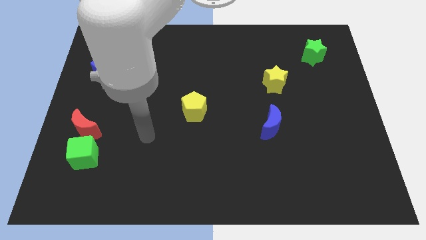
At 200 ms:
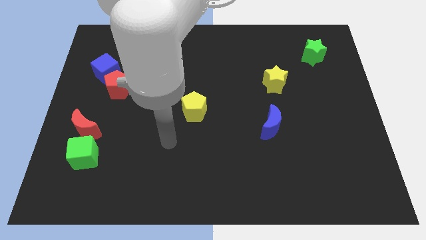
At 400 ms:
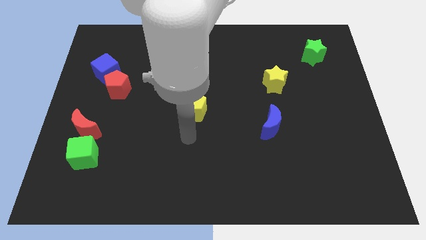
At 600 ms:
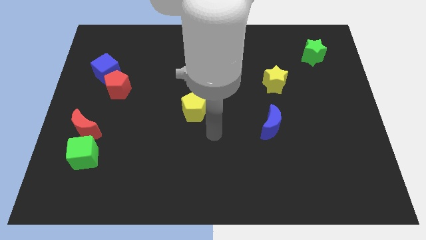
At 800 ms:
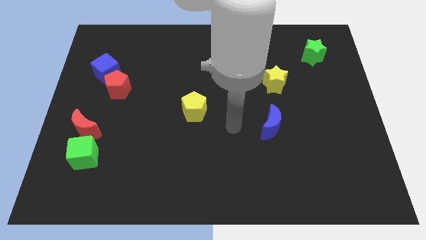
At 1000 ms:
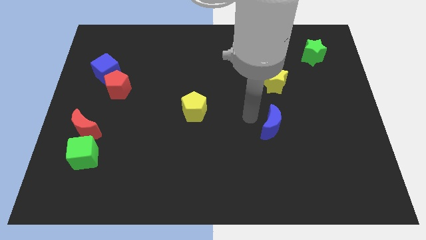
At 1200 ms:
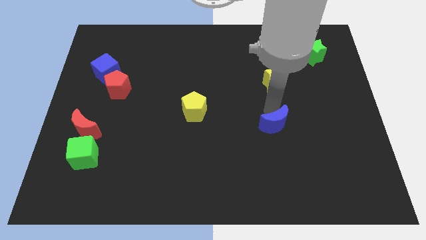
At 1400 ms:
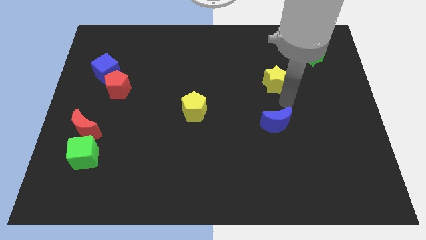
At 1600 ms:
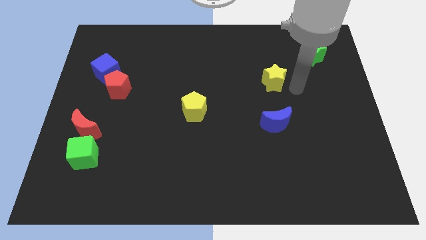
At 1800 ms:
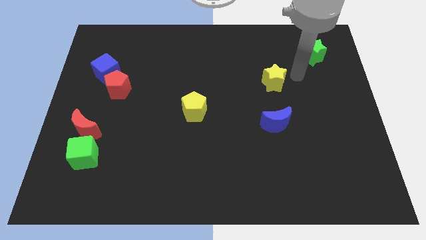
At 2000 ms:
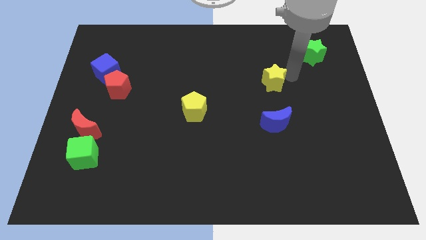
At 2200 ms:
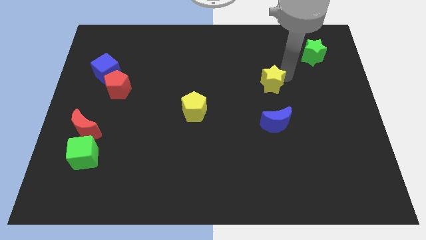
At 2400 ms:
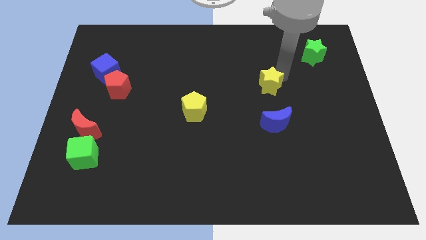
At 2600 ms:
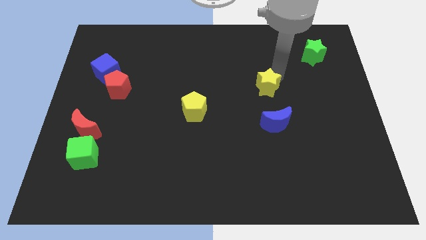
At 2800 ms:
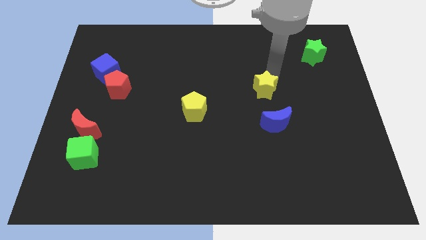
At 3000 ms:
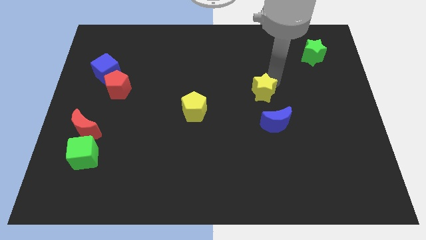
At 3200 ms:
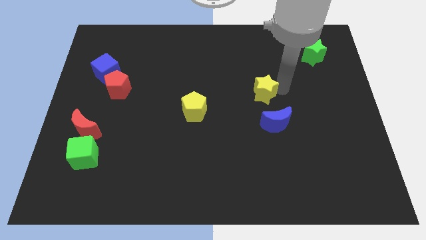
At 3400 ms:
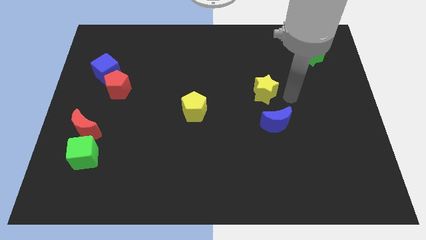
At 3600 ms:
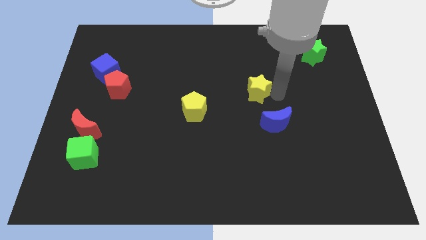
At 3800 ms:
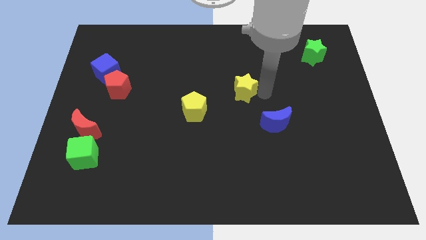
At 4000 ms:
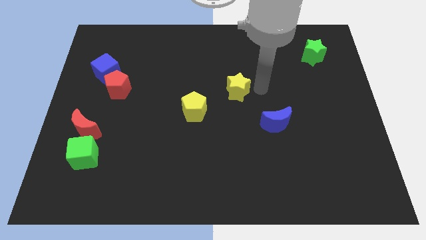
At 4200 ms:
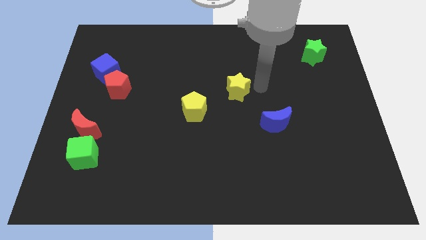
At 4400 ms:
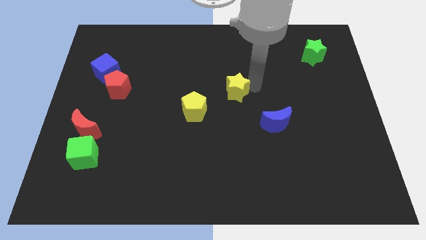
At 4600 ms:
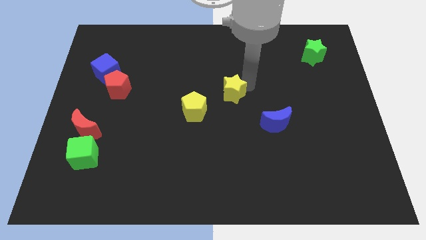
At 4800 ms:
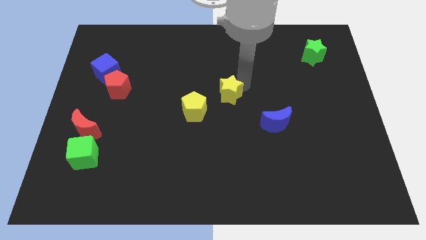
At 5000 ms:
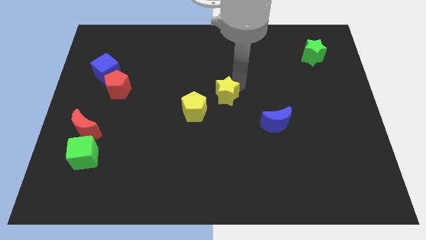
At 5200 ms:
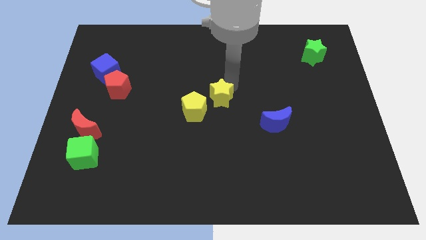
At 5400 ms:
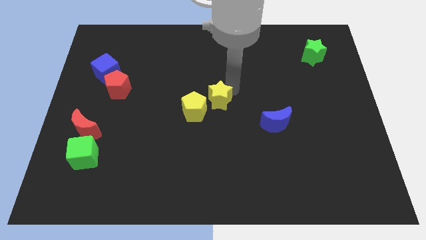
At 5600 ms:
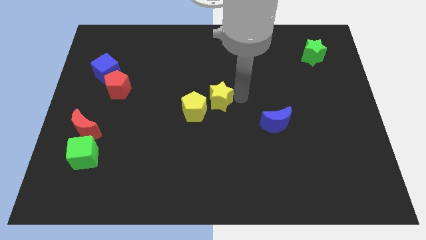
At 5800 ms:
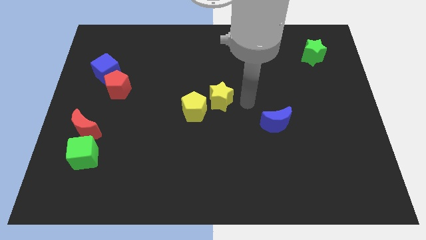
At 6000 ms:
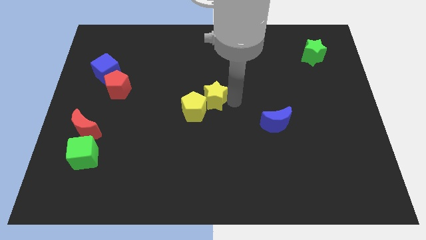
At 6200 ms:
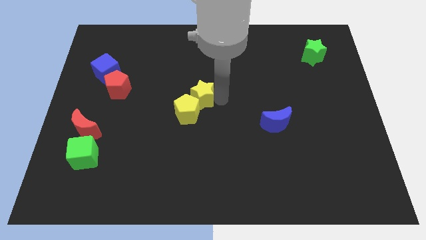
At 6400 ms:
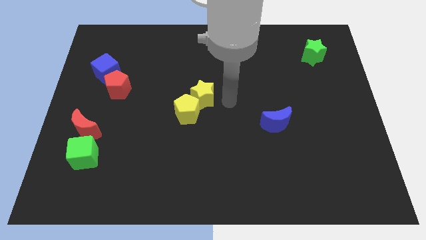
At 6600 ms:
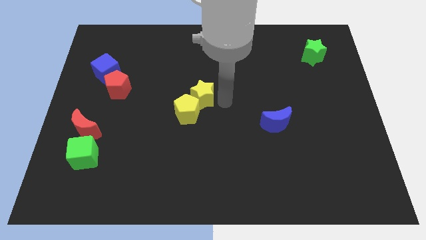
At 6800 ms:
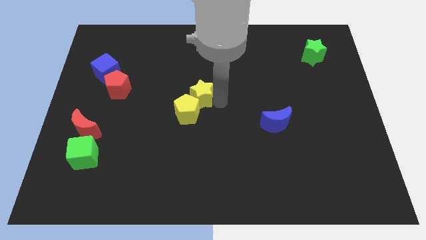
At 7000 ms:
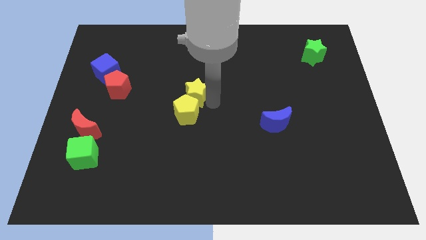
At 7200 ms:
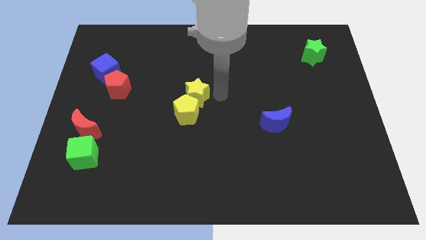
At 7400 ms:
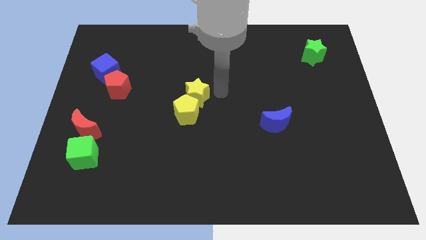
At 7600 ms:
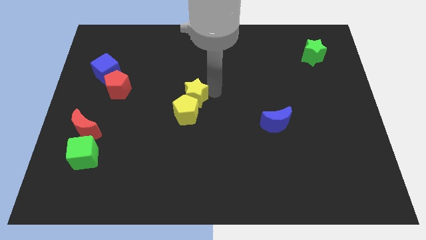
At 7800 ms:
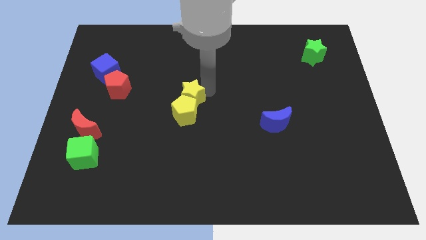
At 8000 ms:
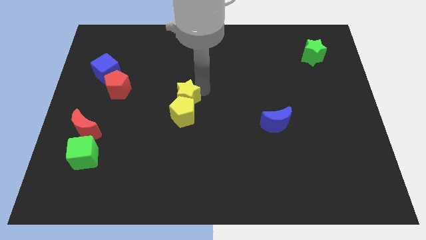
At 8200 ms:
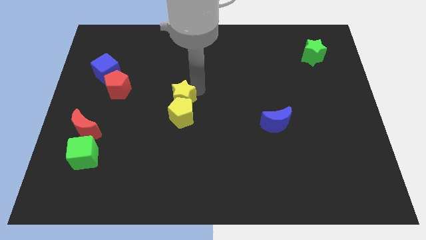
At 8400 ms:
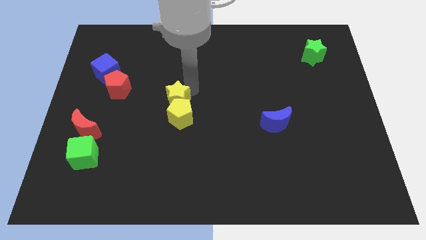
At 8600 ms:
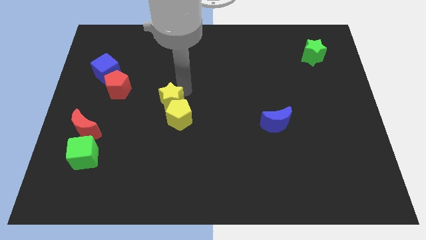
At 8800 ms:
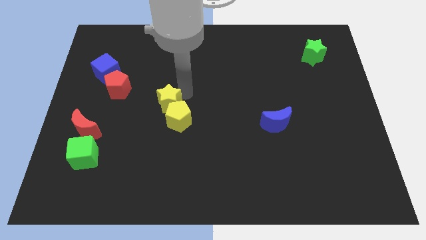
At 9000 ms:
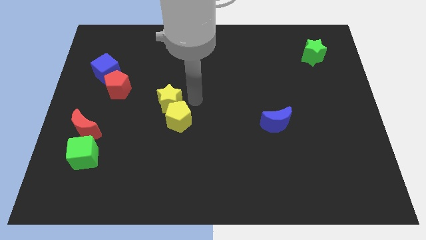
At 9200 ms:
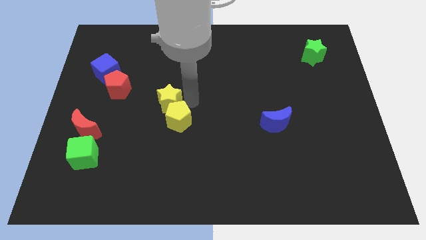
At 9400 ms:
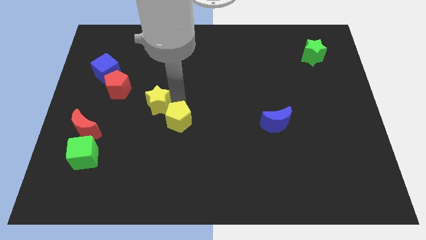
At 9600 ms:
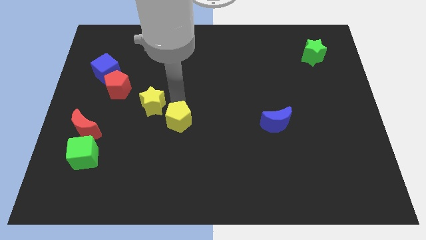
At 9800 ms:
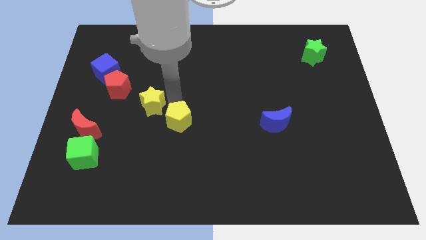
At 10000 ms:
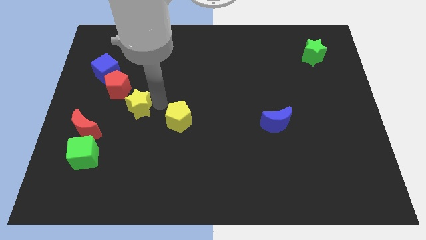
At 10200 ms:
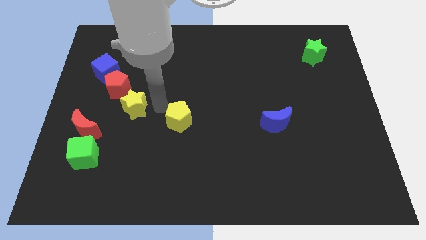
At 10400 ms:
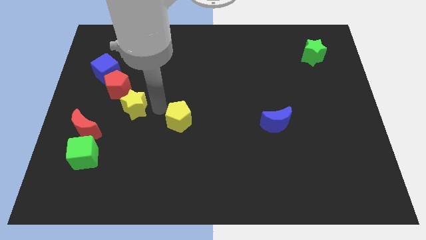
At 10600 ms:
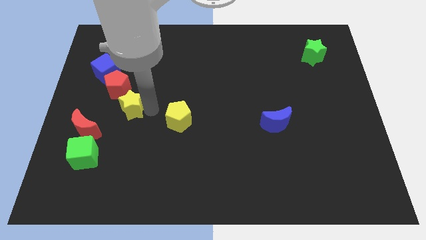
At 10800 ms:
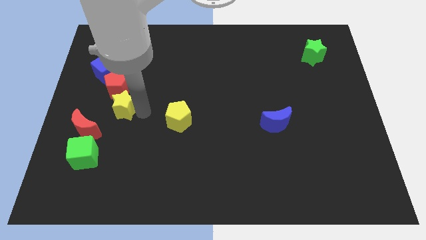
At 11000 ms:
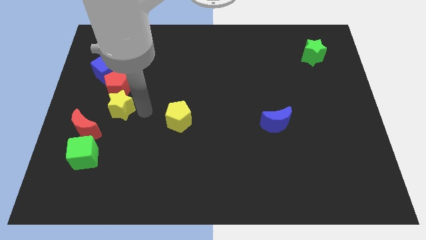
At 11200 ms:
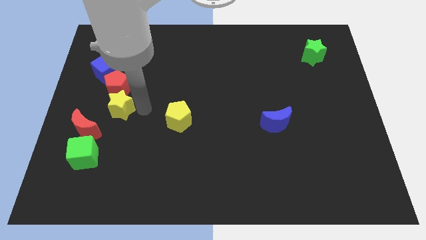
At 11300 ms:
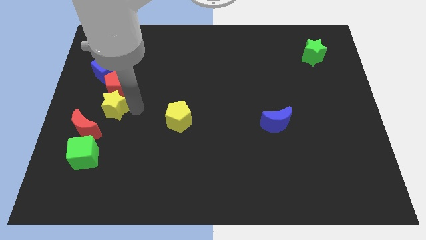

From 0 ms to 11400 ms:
push the yellow star to the bottom left of the red pentagon

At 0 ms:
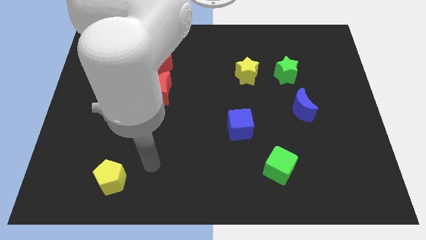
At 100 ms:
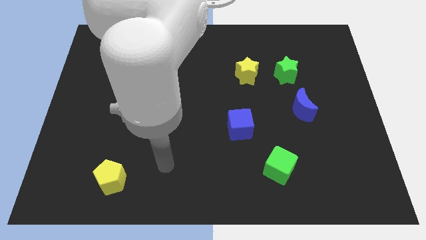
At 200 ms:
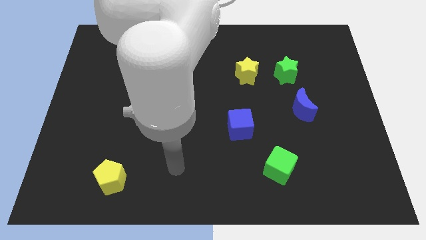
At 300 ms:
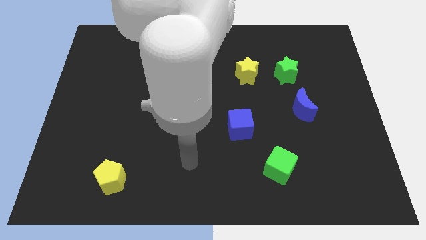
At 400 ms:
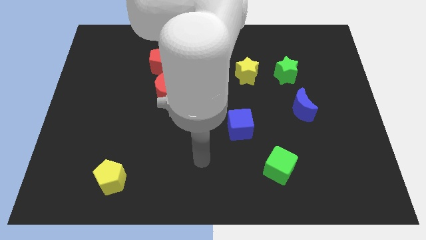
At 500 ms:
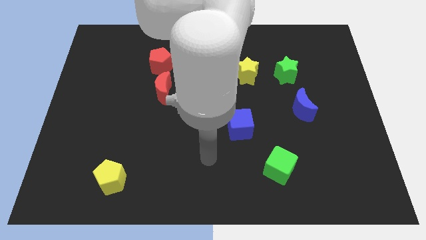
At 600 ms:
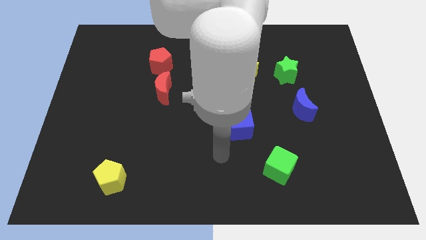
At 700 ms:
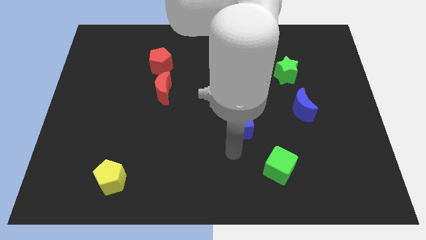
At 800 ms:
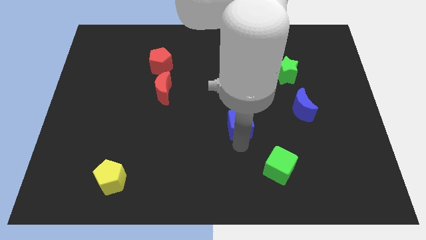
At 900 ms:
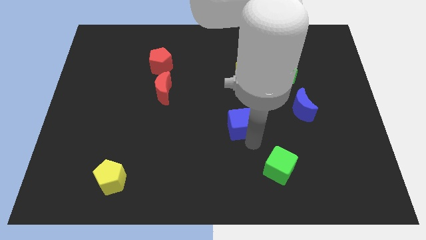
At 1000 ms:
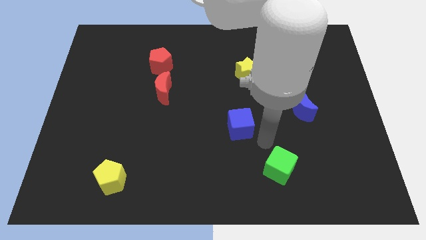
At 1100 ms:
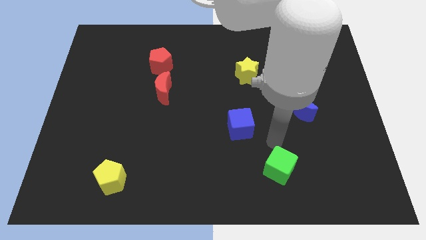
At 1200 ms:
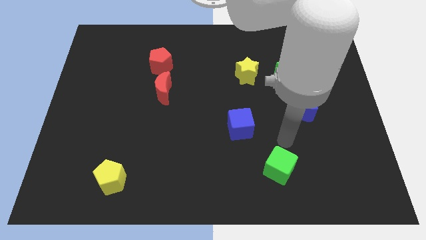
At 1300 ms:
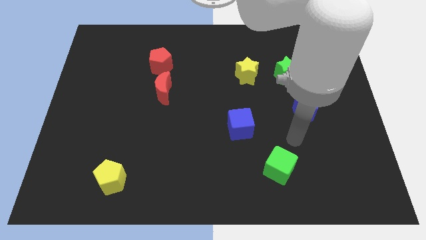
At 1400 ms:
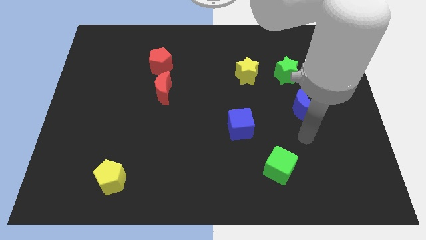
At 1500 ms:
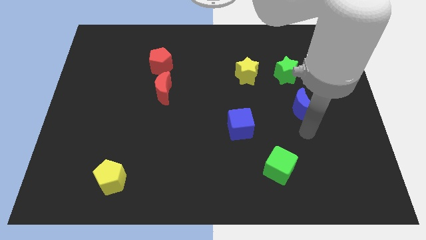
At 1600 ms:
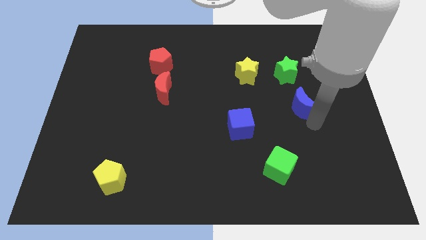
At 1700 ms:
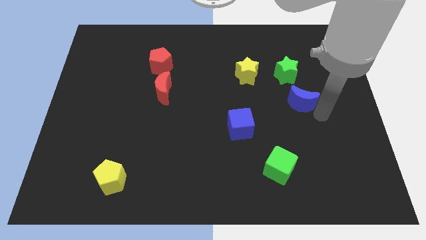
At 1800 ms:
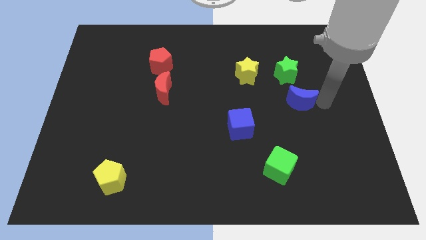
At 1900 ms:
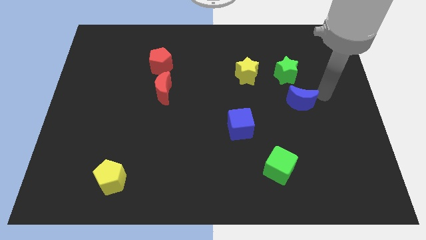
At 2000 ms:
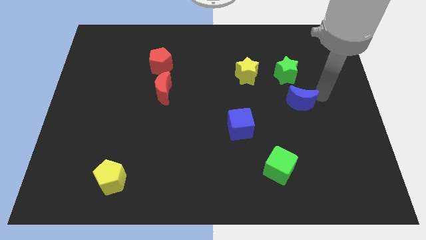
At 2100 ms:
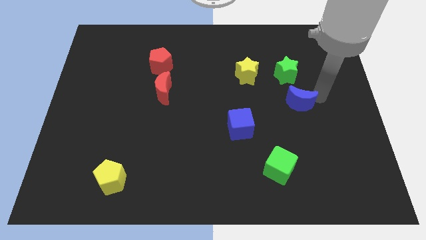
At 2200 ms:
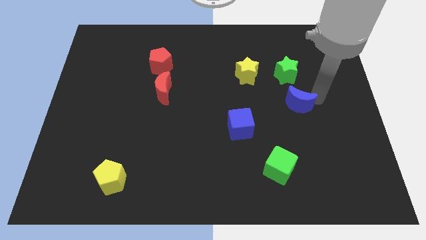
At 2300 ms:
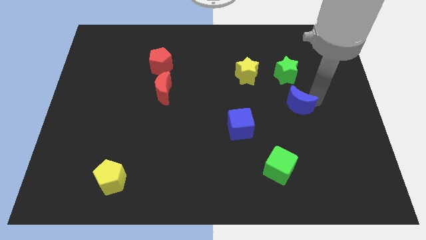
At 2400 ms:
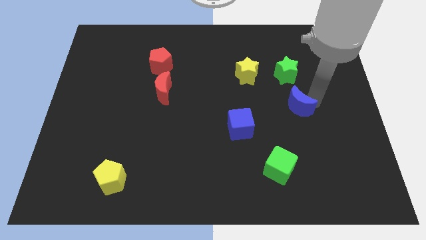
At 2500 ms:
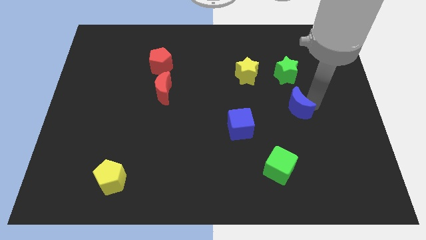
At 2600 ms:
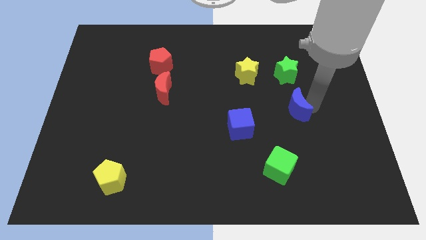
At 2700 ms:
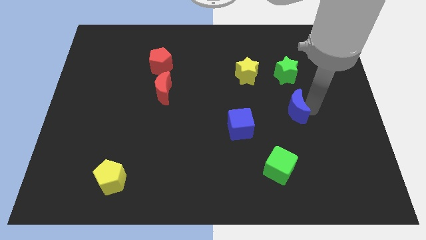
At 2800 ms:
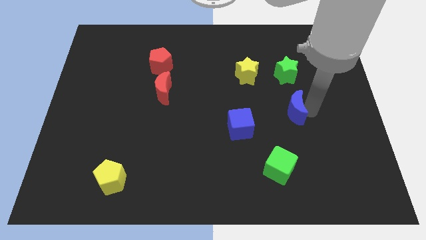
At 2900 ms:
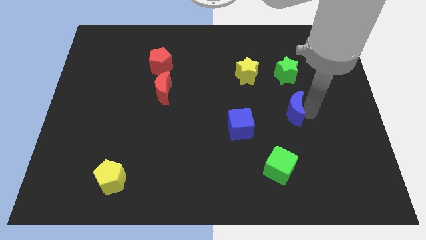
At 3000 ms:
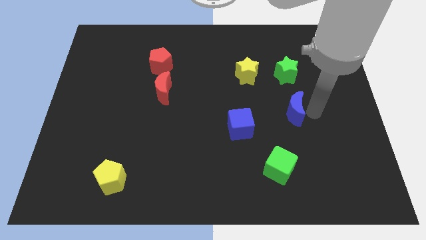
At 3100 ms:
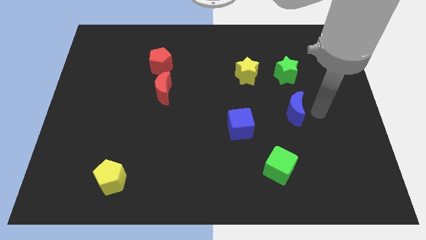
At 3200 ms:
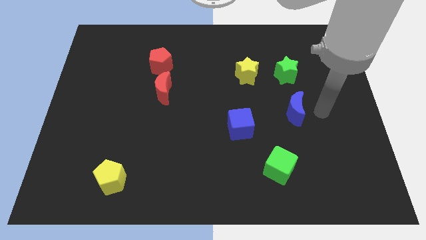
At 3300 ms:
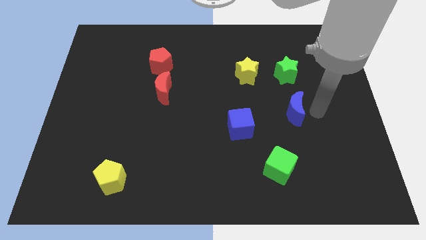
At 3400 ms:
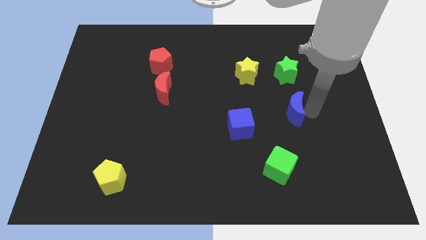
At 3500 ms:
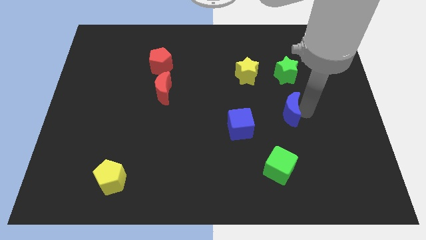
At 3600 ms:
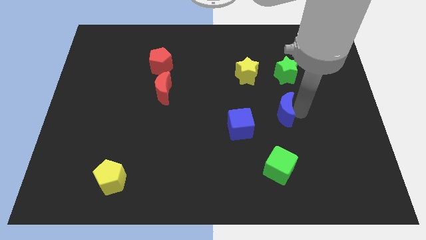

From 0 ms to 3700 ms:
slide the blue moon to the top right of the blue cube
